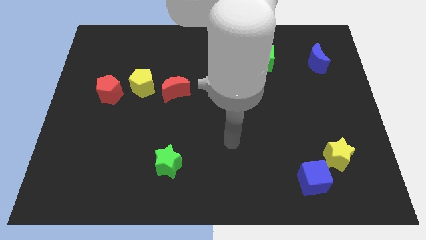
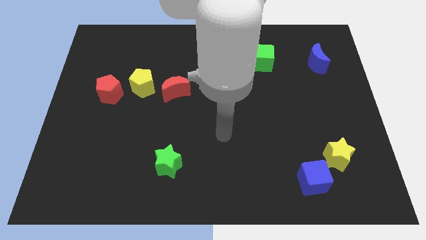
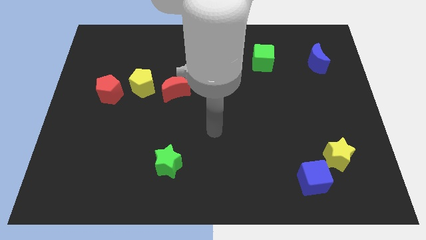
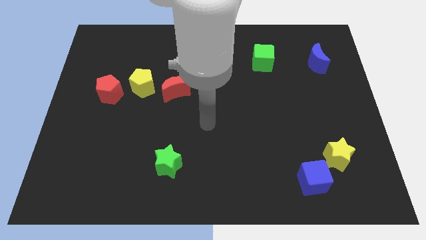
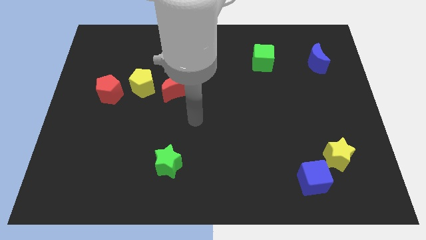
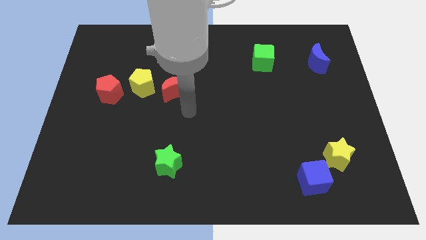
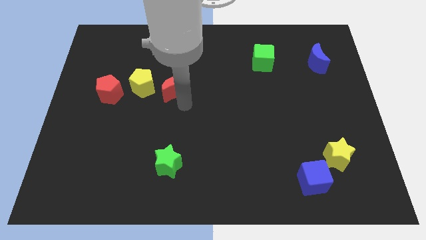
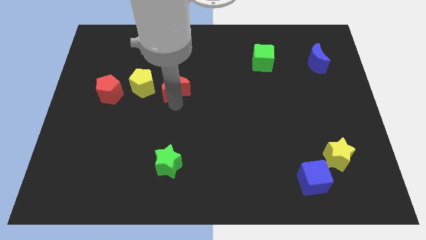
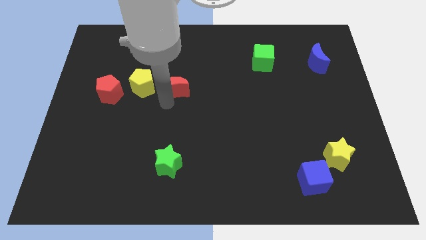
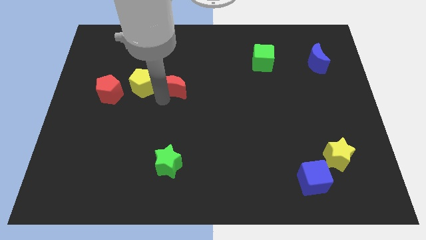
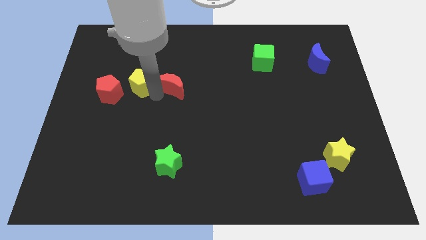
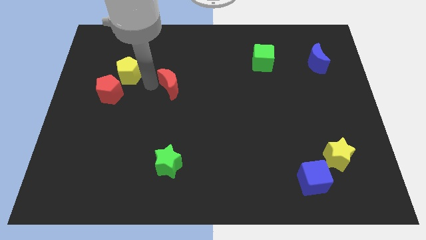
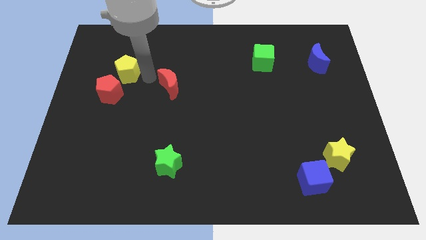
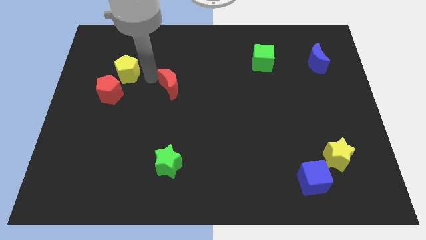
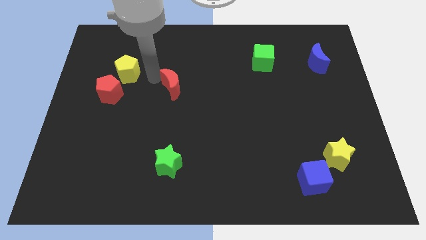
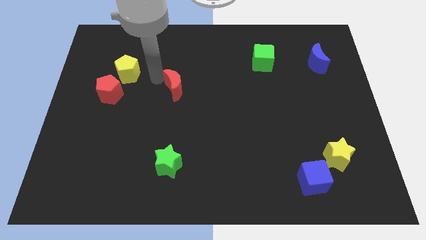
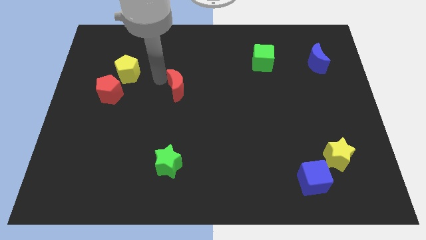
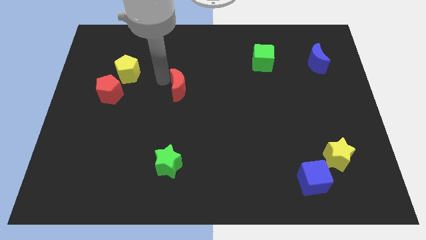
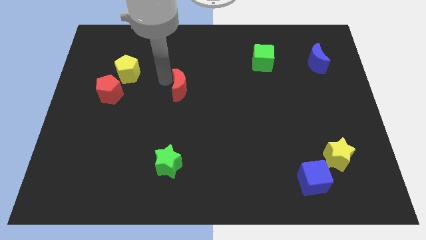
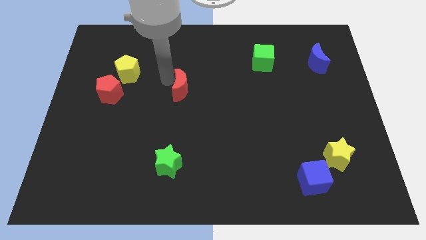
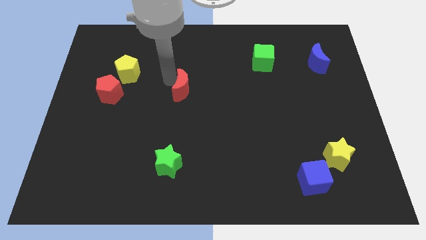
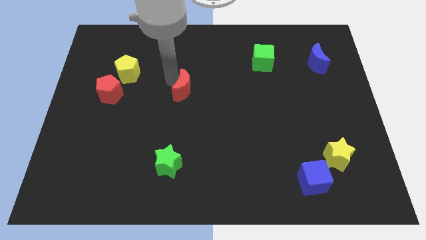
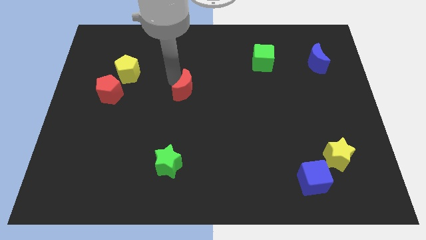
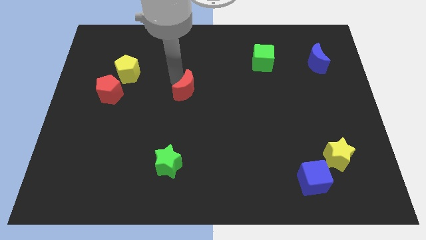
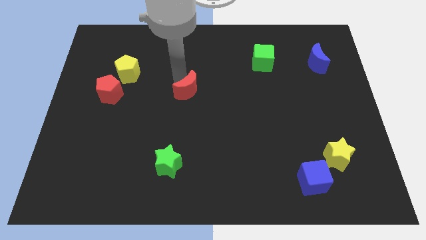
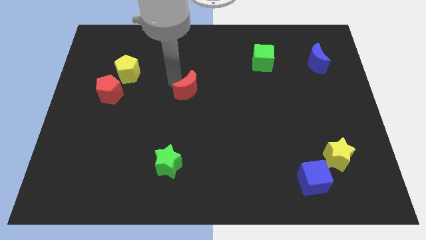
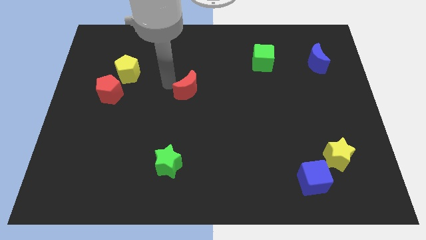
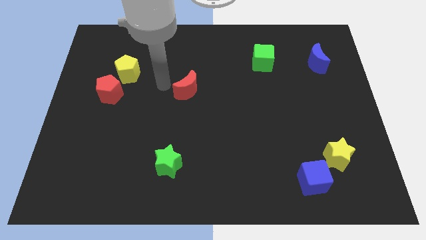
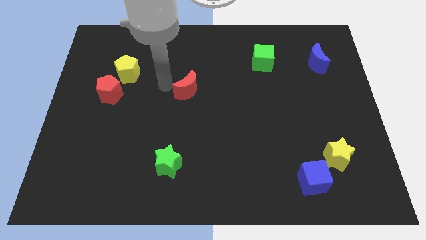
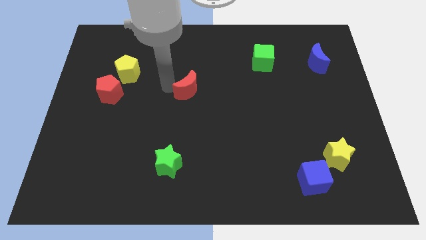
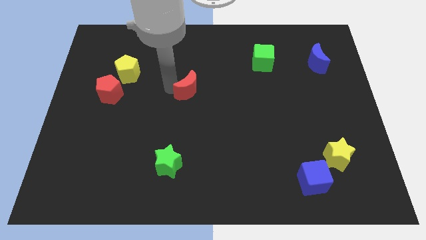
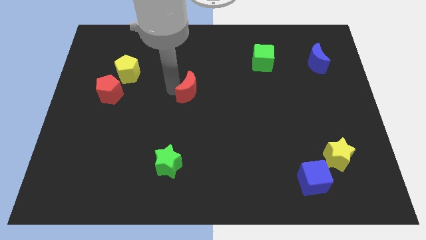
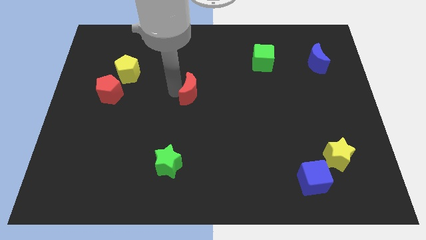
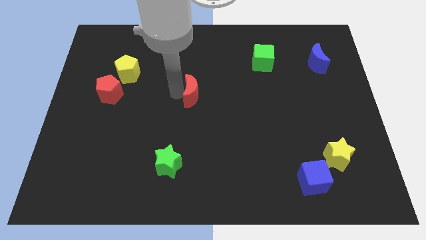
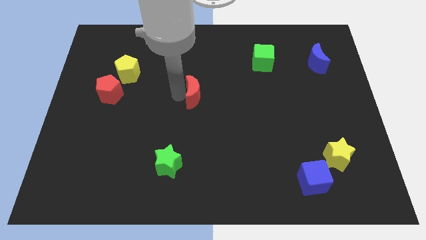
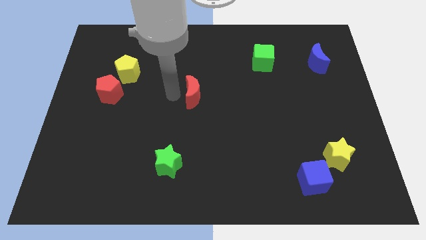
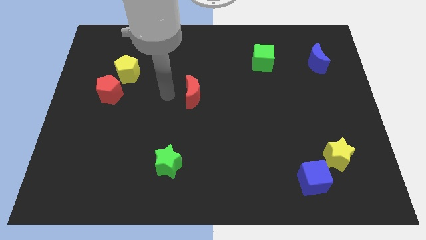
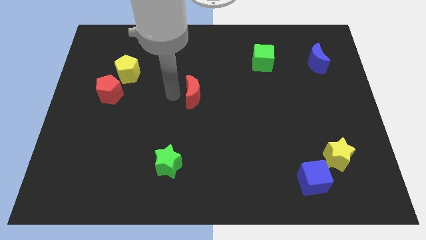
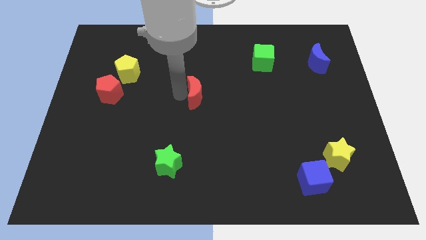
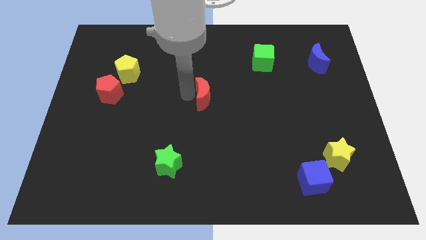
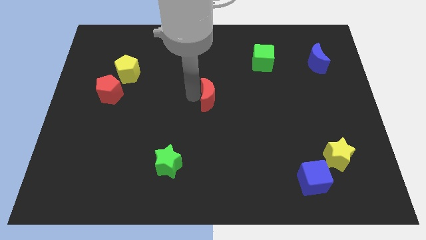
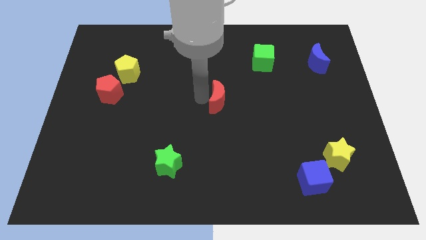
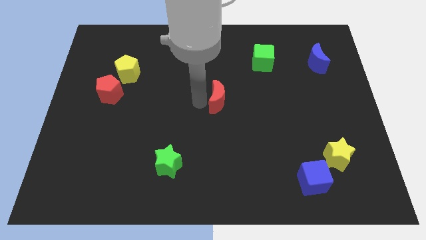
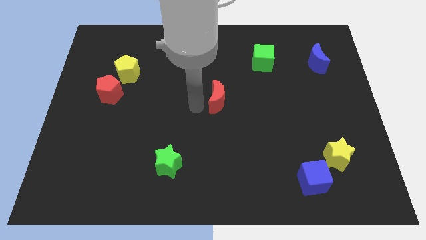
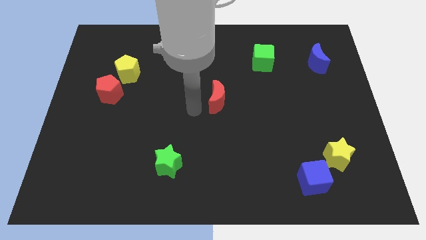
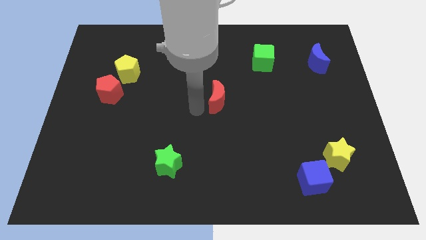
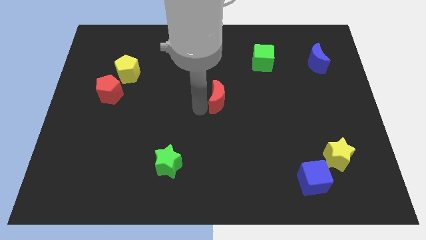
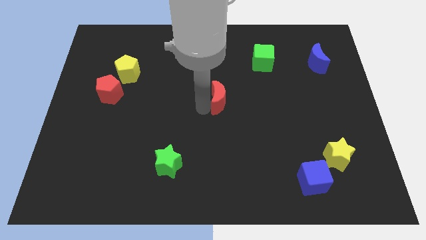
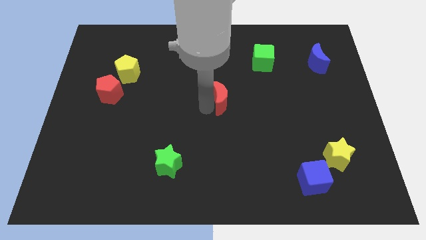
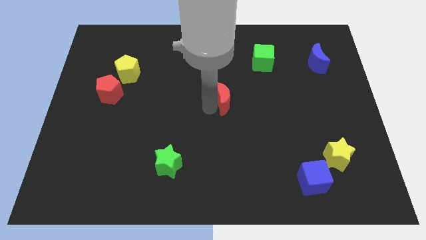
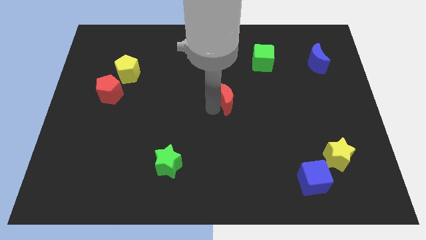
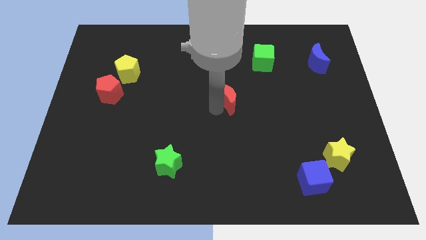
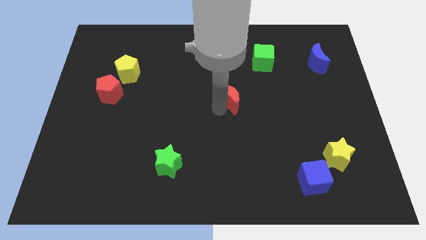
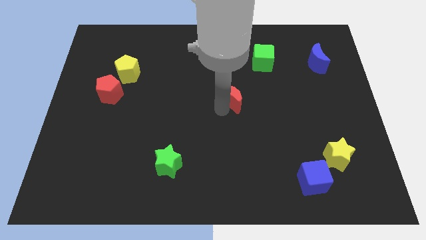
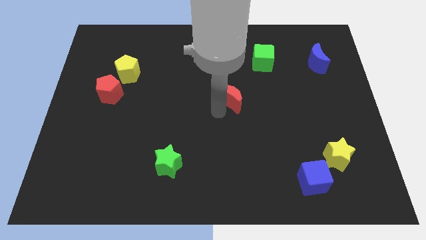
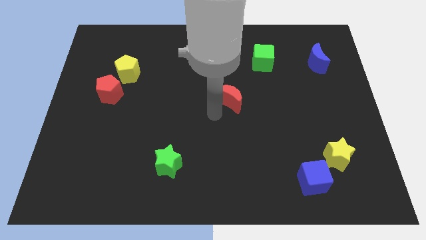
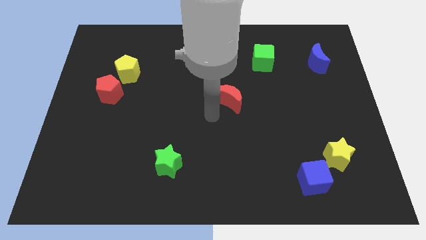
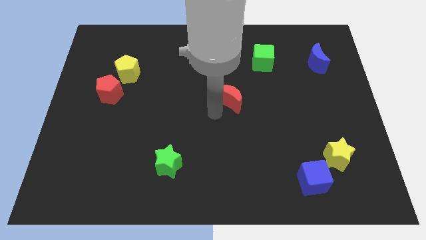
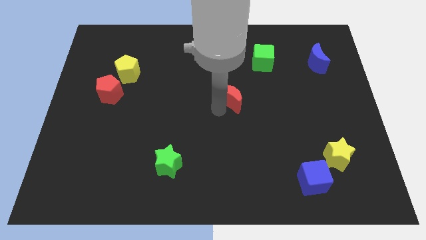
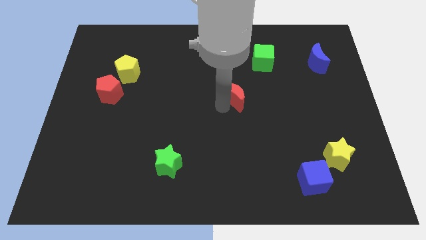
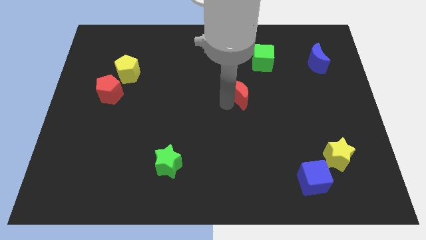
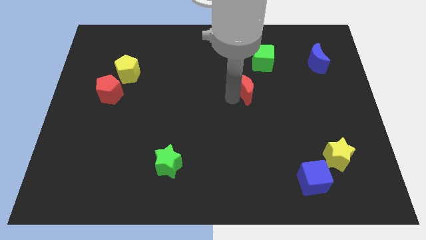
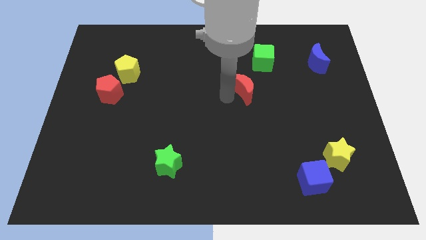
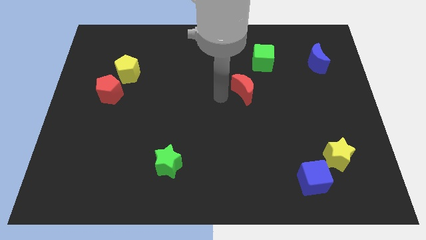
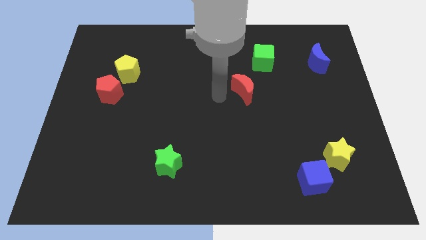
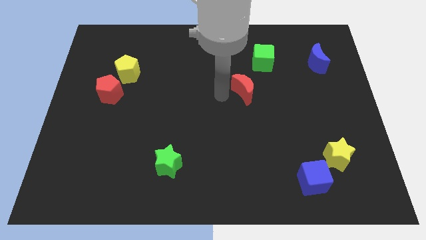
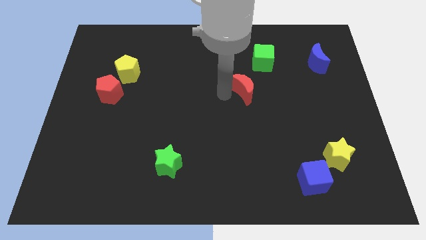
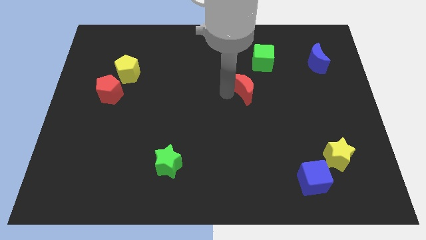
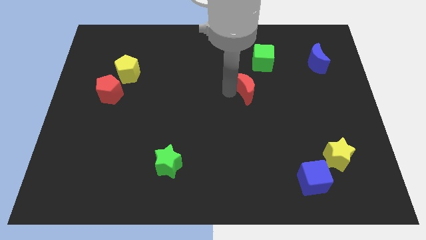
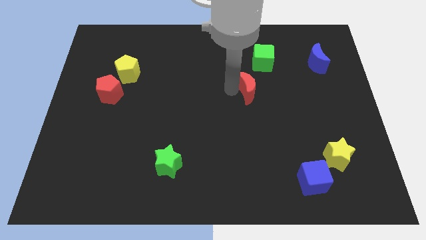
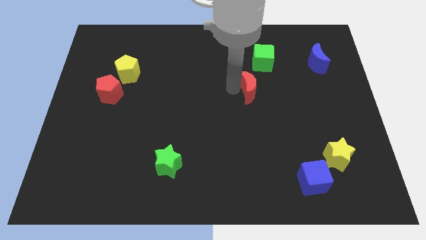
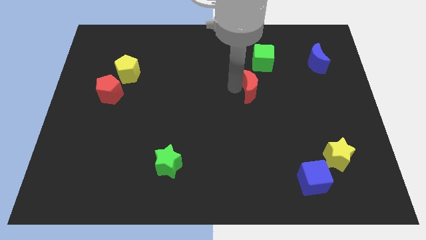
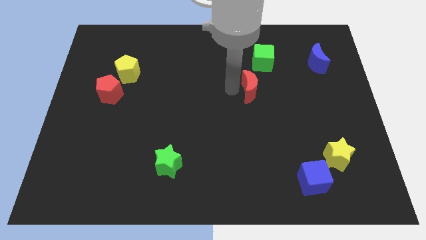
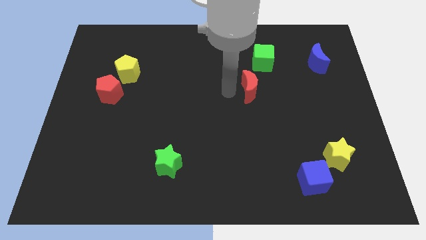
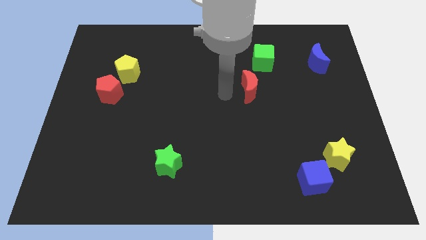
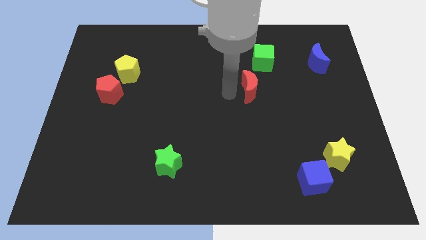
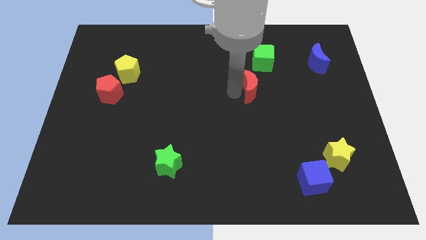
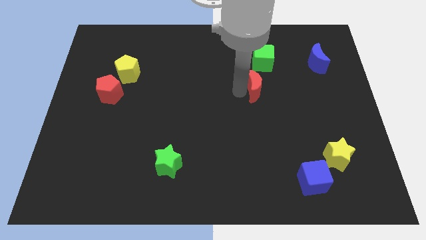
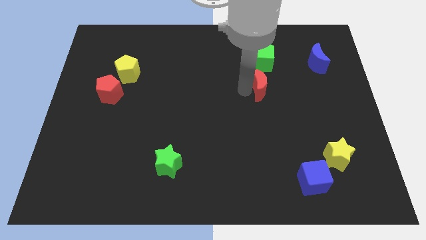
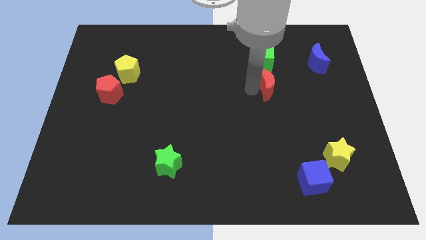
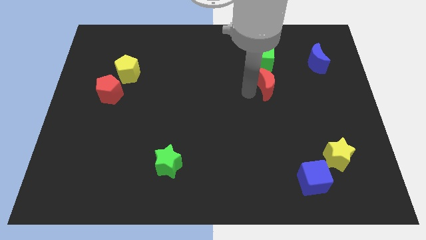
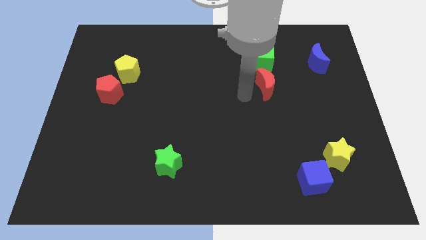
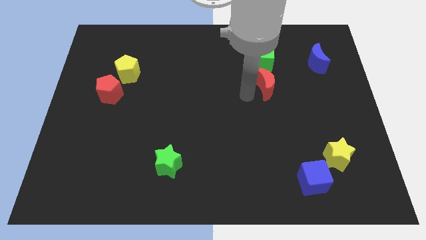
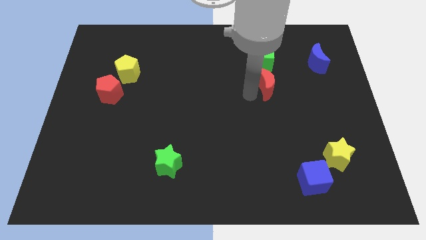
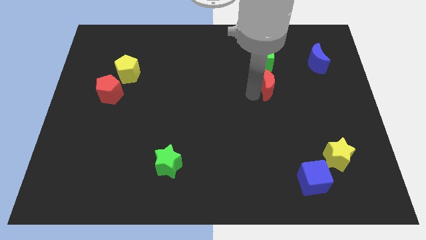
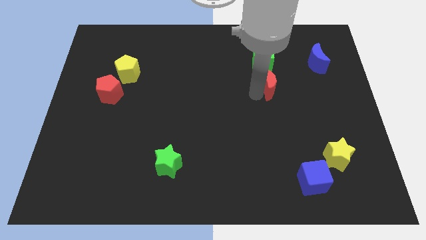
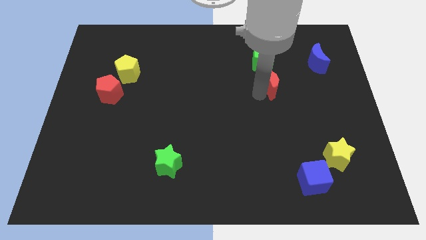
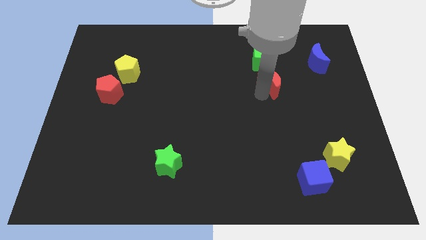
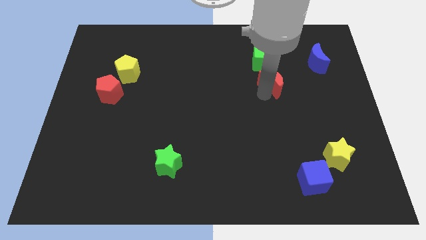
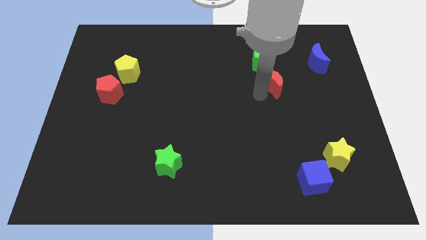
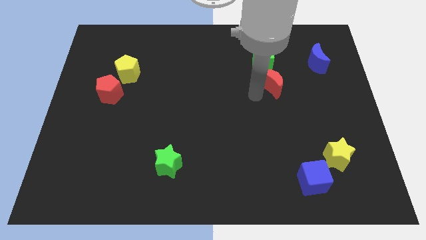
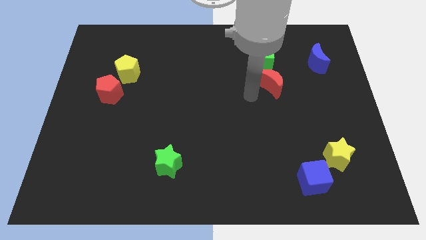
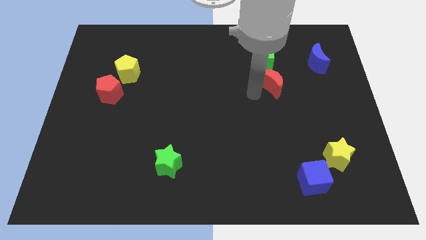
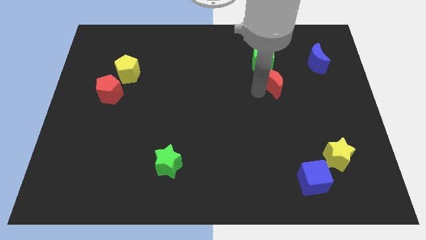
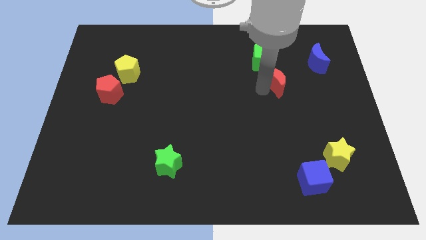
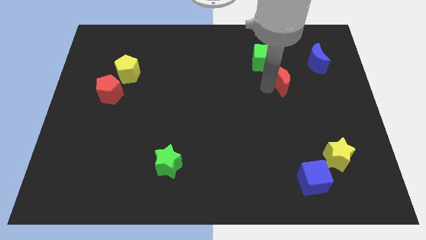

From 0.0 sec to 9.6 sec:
slide the red moon to the bottom left of the blue moon
